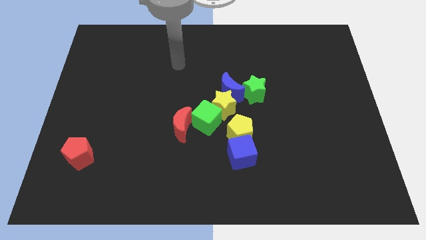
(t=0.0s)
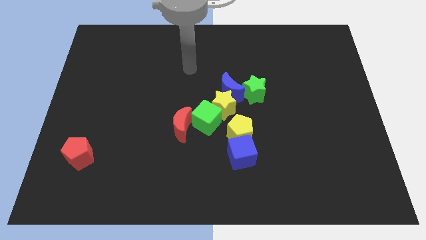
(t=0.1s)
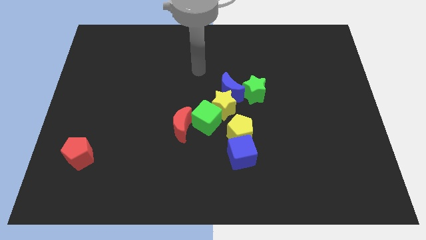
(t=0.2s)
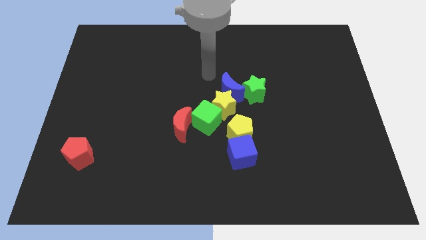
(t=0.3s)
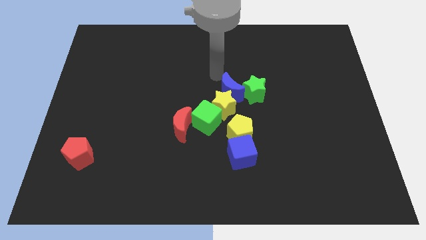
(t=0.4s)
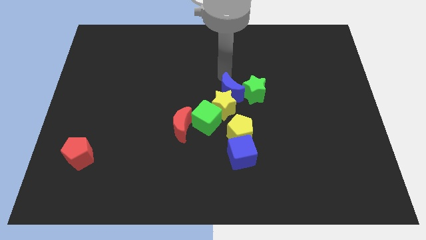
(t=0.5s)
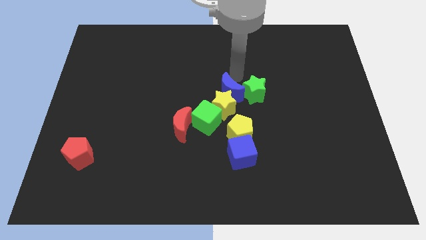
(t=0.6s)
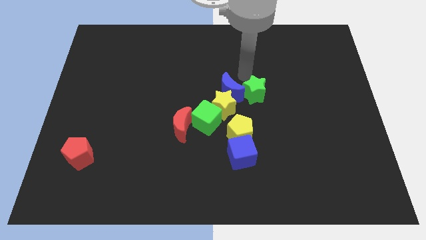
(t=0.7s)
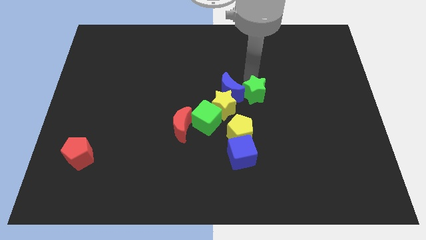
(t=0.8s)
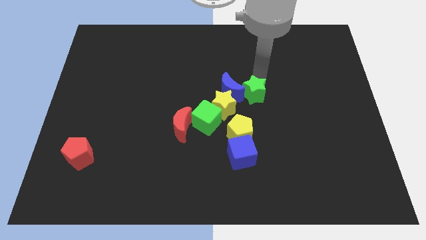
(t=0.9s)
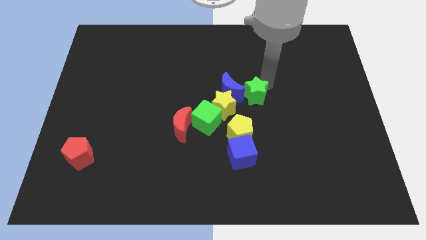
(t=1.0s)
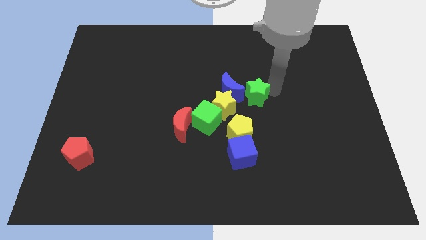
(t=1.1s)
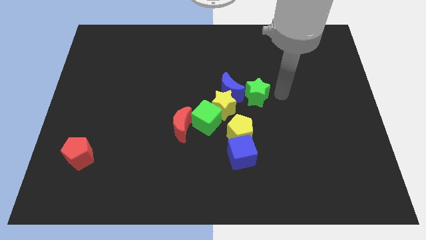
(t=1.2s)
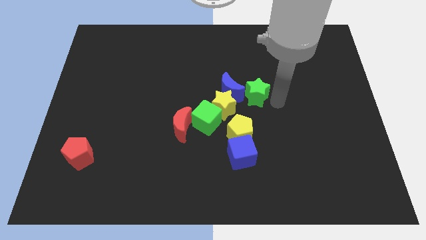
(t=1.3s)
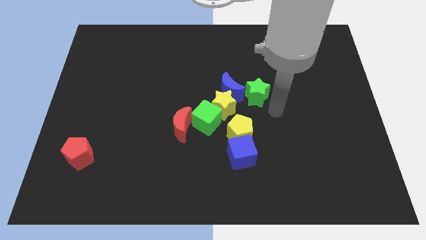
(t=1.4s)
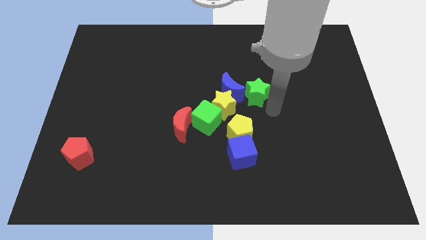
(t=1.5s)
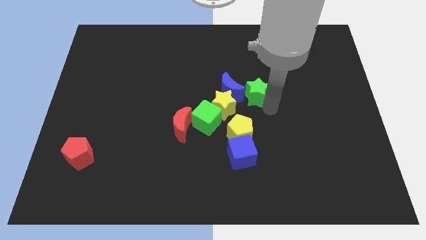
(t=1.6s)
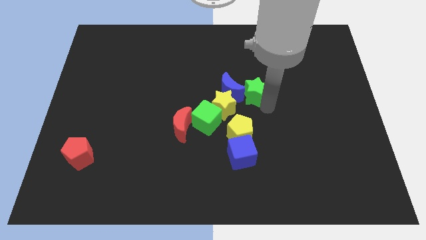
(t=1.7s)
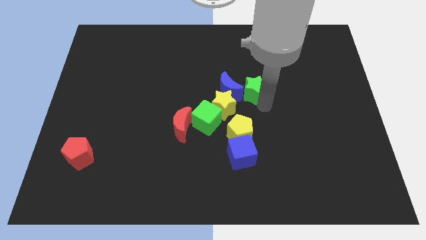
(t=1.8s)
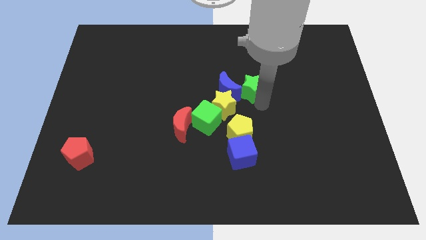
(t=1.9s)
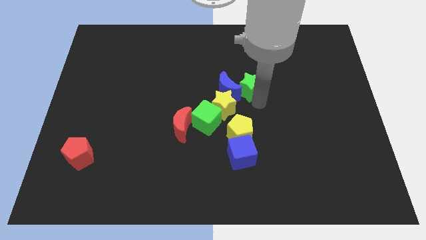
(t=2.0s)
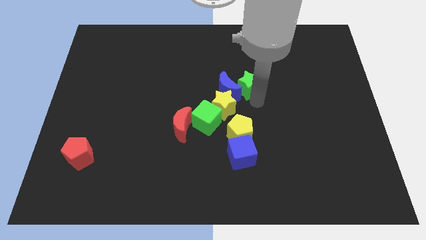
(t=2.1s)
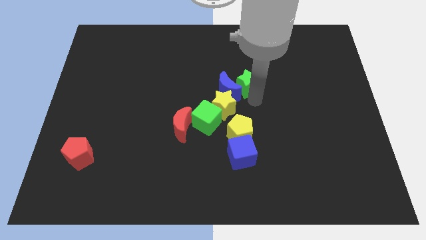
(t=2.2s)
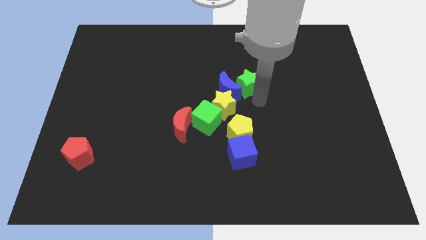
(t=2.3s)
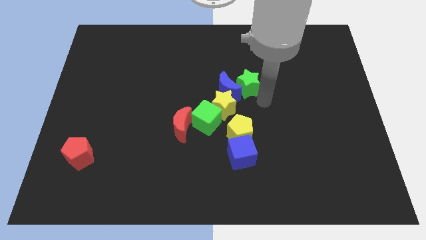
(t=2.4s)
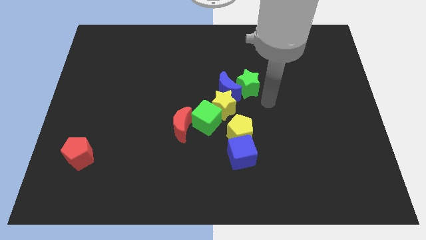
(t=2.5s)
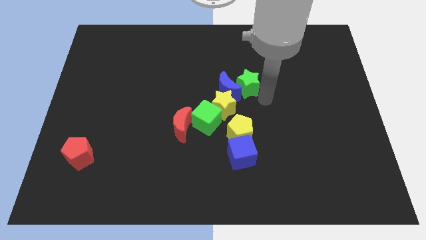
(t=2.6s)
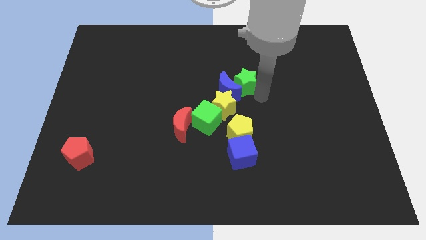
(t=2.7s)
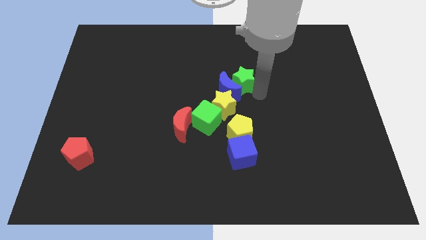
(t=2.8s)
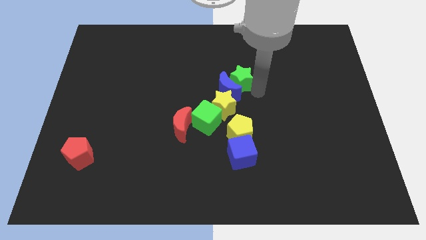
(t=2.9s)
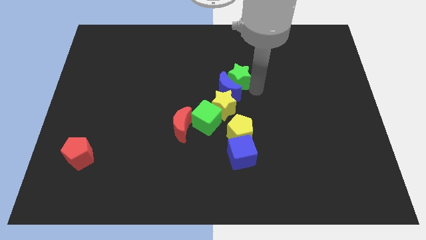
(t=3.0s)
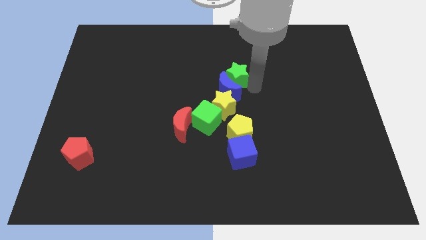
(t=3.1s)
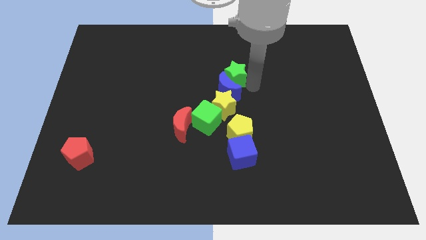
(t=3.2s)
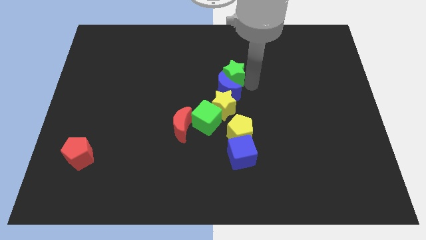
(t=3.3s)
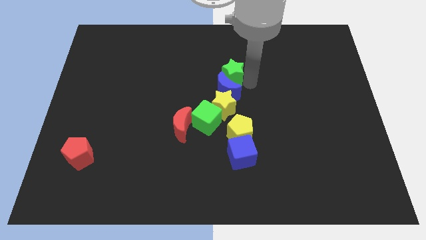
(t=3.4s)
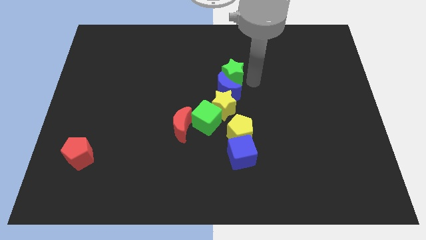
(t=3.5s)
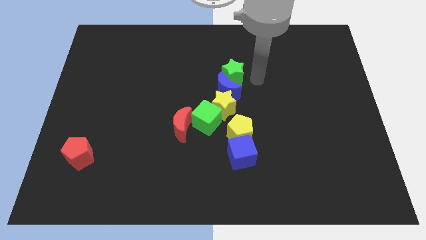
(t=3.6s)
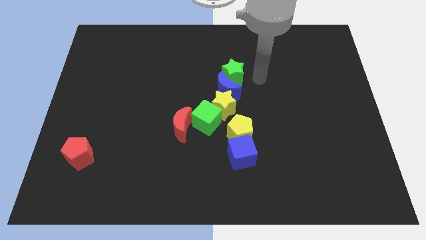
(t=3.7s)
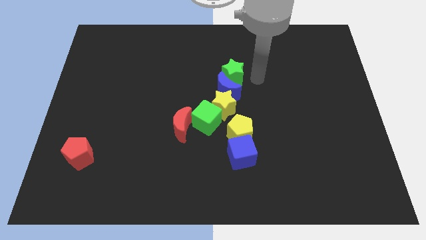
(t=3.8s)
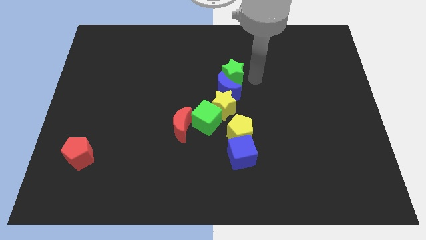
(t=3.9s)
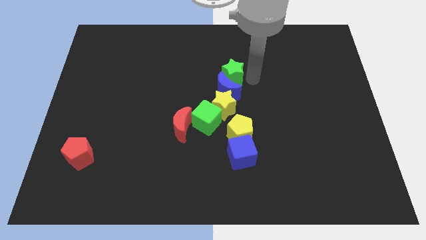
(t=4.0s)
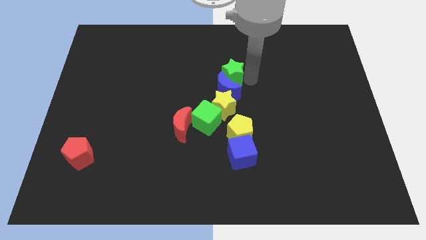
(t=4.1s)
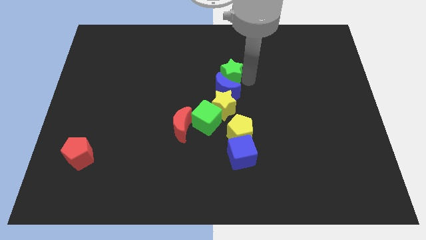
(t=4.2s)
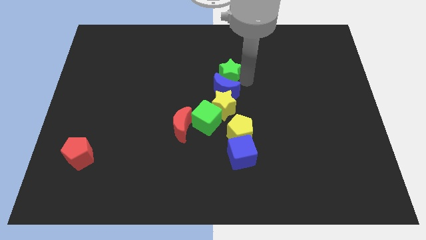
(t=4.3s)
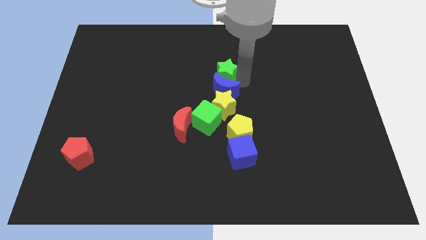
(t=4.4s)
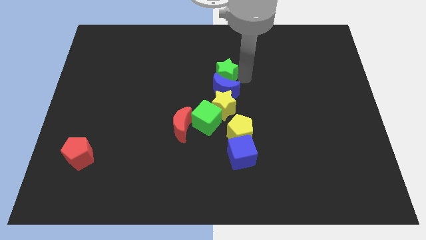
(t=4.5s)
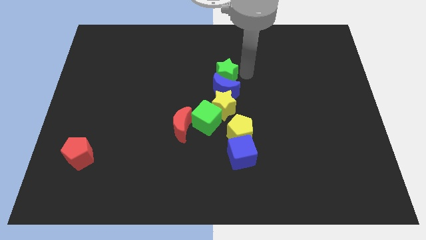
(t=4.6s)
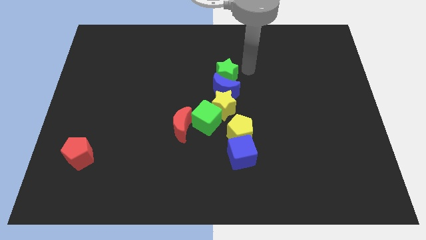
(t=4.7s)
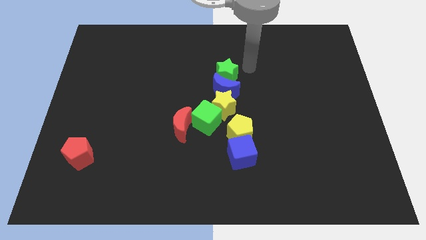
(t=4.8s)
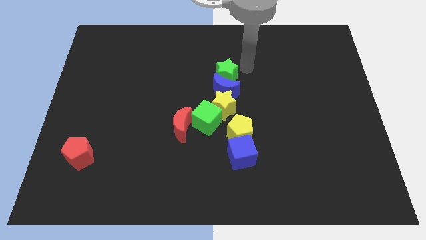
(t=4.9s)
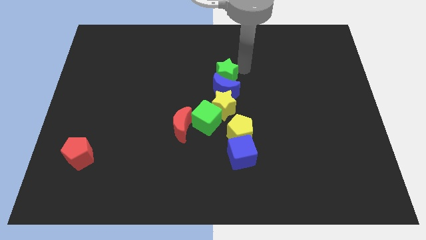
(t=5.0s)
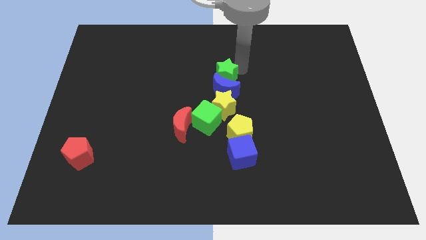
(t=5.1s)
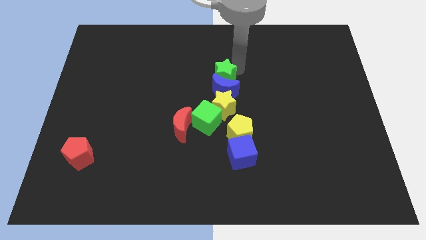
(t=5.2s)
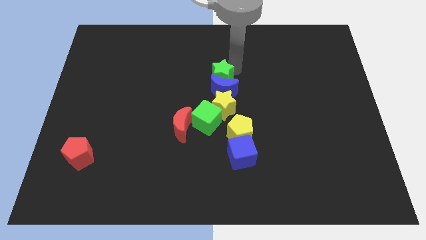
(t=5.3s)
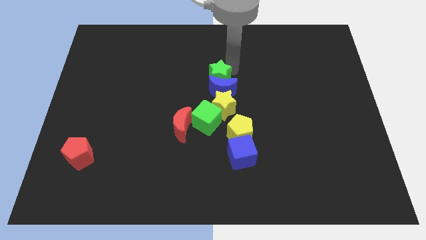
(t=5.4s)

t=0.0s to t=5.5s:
slide the green star to the left somewhat

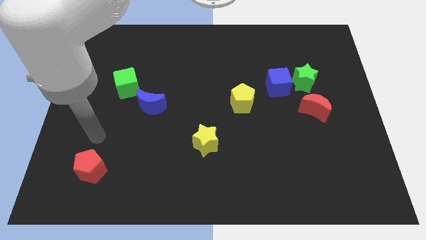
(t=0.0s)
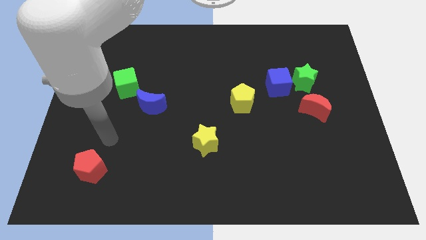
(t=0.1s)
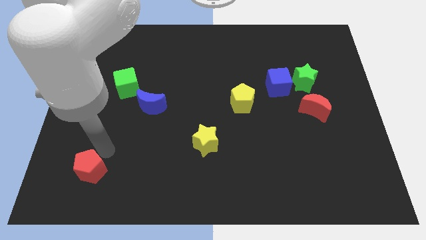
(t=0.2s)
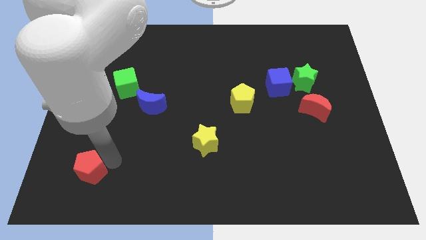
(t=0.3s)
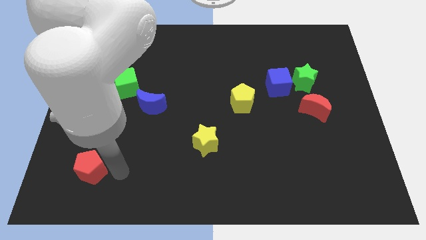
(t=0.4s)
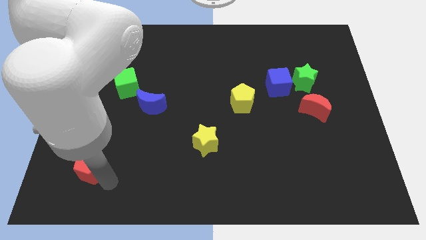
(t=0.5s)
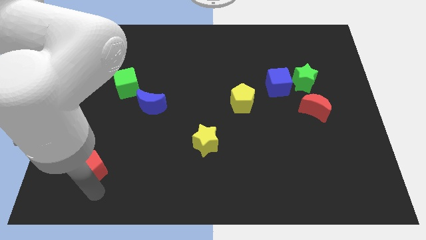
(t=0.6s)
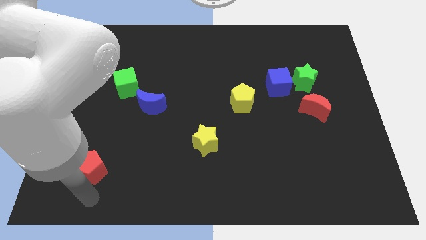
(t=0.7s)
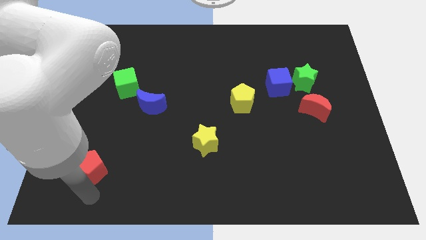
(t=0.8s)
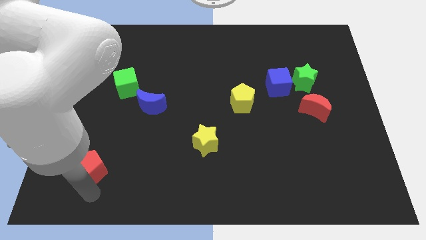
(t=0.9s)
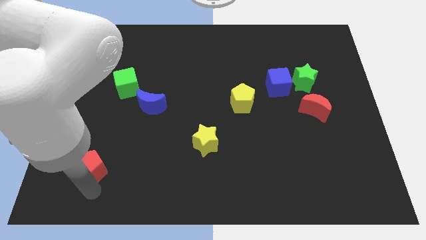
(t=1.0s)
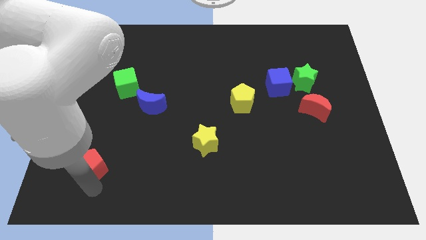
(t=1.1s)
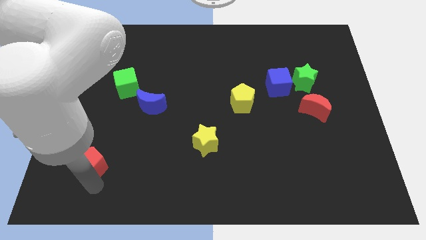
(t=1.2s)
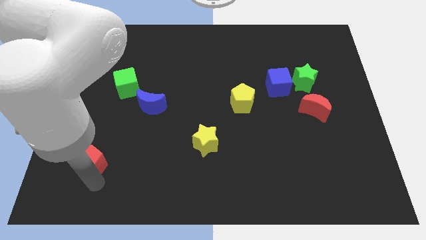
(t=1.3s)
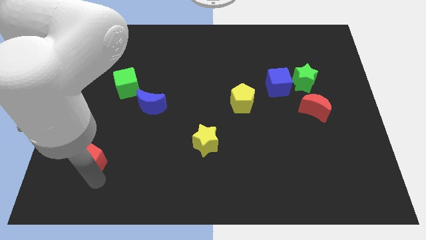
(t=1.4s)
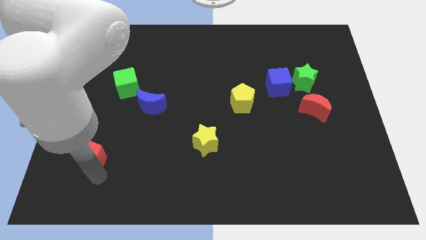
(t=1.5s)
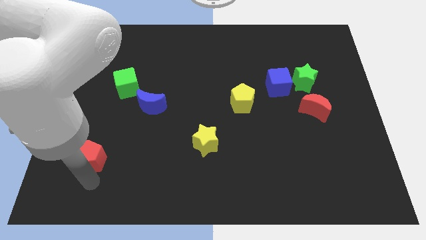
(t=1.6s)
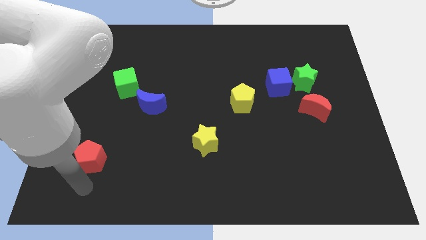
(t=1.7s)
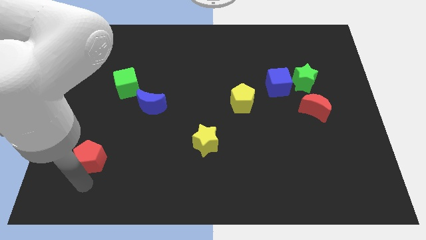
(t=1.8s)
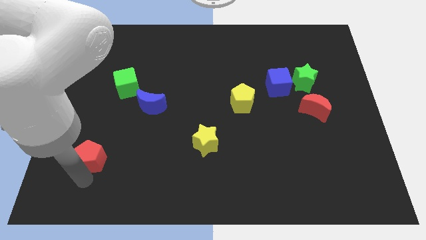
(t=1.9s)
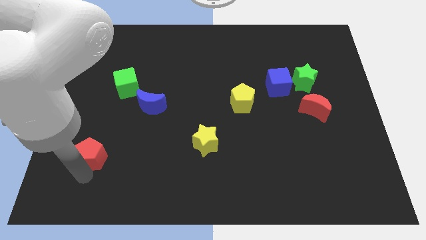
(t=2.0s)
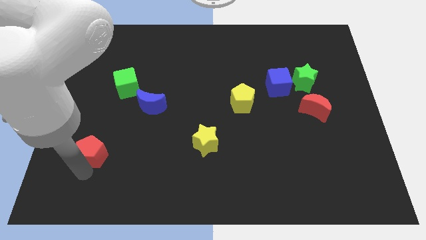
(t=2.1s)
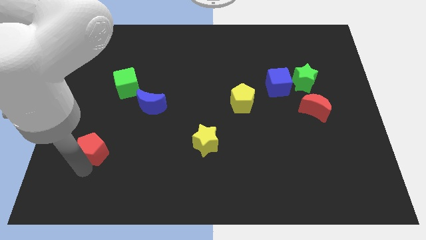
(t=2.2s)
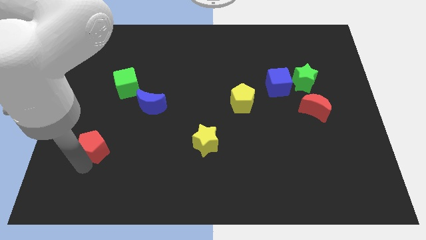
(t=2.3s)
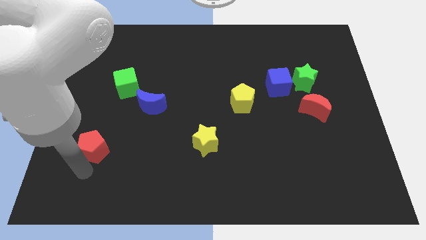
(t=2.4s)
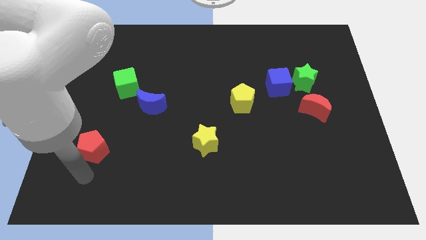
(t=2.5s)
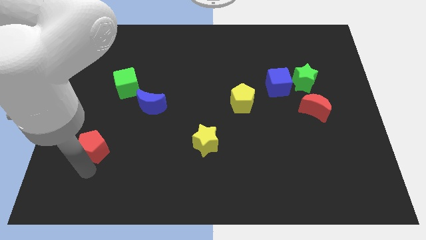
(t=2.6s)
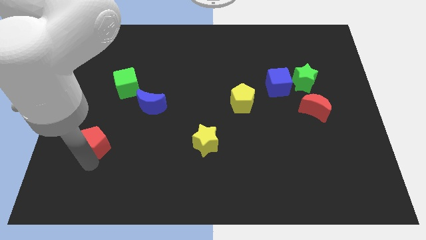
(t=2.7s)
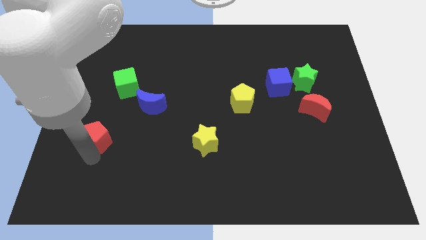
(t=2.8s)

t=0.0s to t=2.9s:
slightly move the red pentagon upwards
